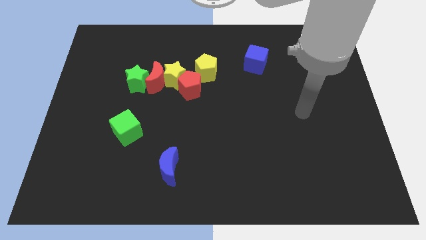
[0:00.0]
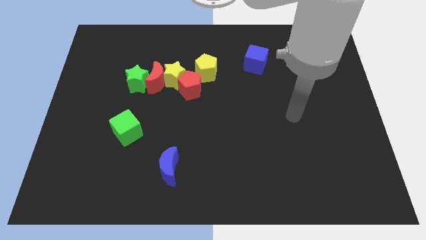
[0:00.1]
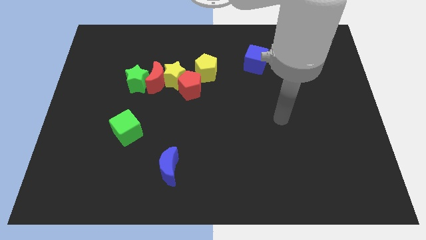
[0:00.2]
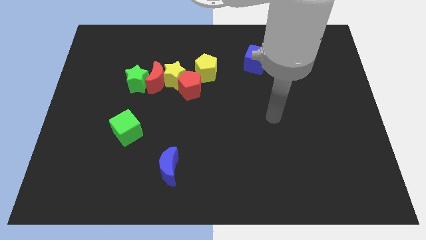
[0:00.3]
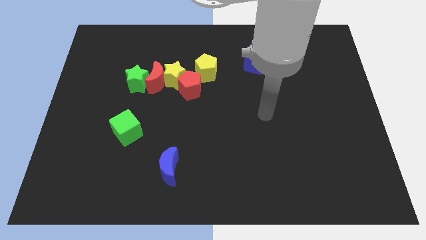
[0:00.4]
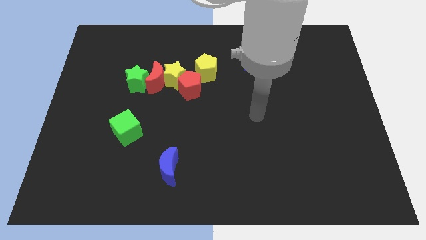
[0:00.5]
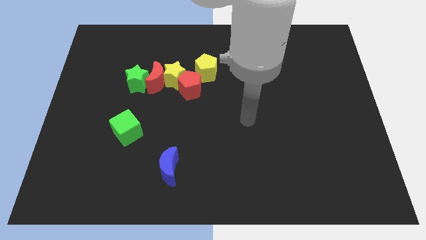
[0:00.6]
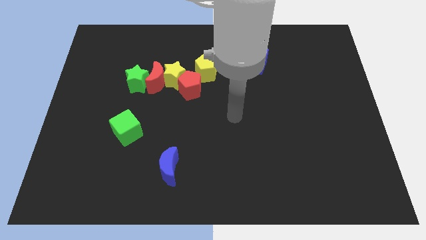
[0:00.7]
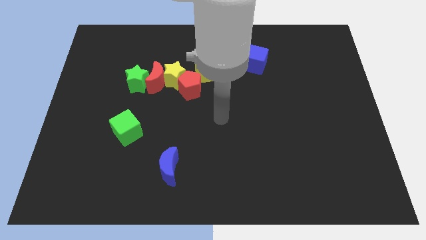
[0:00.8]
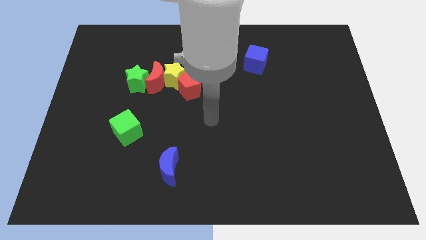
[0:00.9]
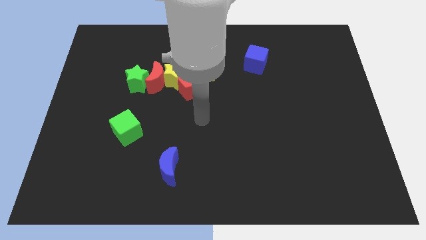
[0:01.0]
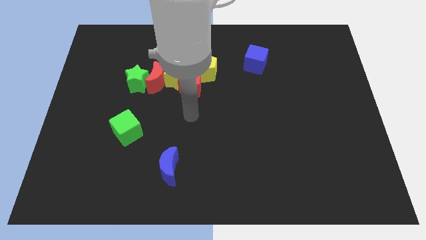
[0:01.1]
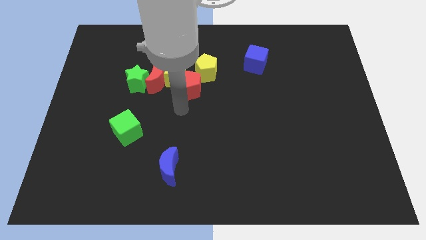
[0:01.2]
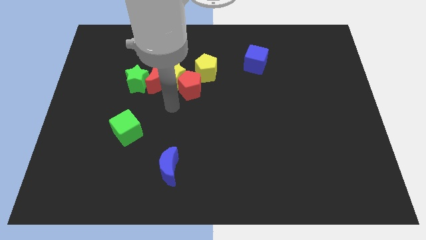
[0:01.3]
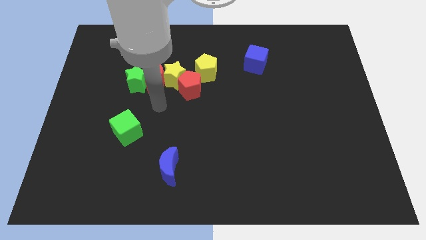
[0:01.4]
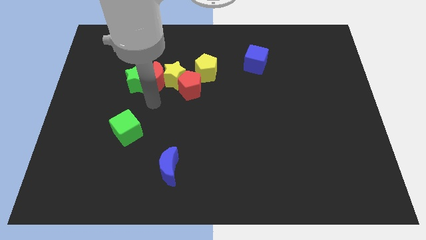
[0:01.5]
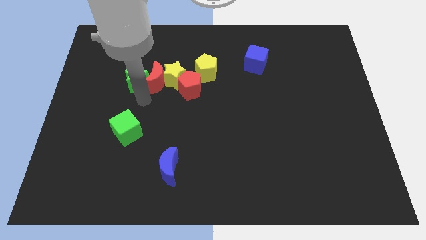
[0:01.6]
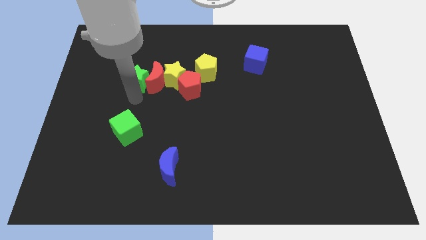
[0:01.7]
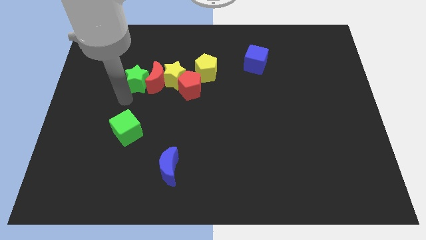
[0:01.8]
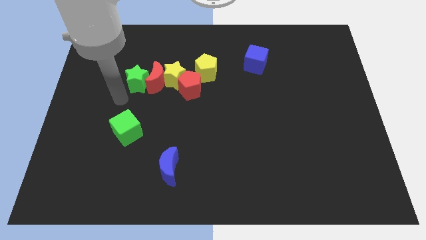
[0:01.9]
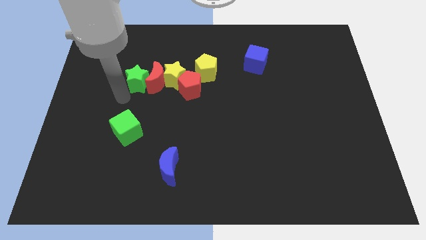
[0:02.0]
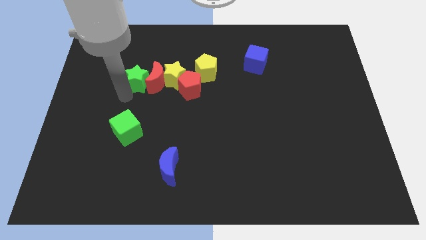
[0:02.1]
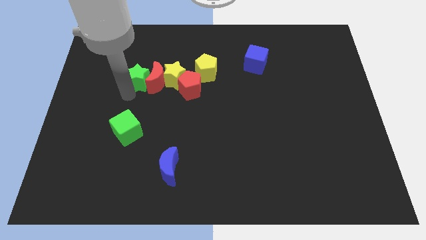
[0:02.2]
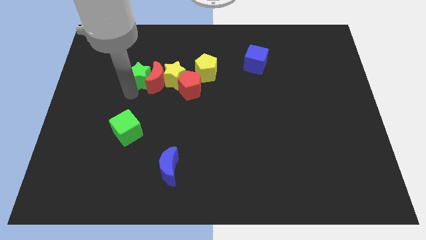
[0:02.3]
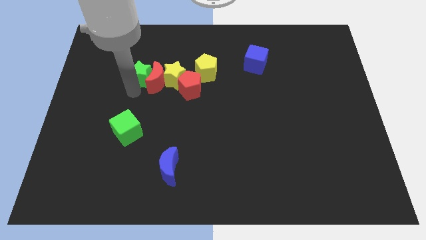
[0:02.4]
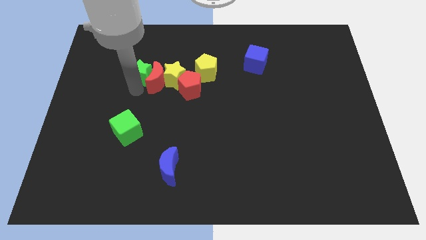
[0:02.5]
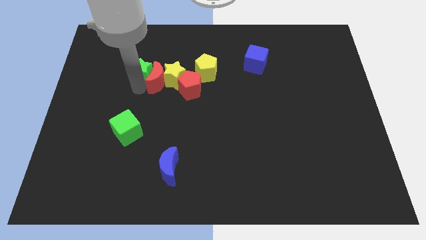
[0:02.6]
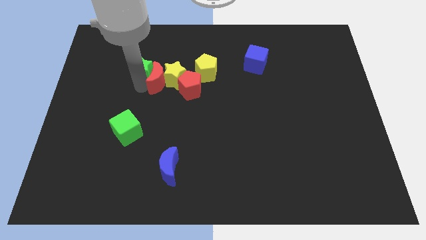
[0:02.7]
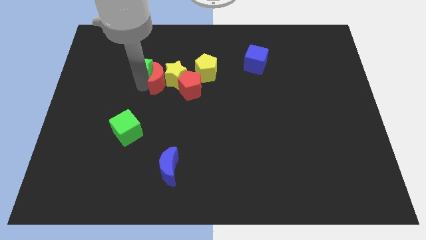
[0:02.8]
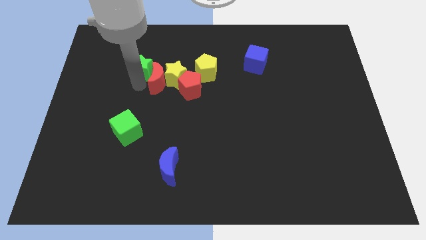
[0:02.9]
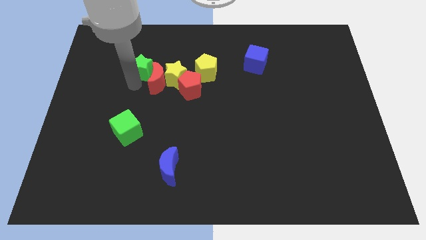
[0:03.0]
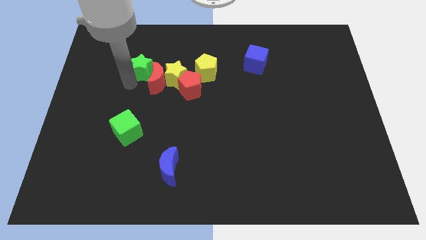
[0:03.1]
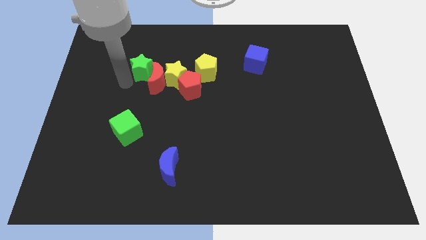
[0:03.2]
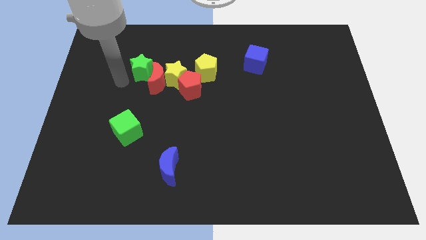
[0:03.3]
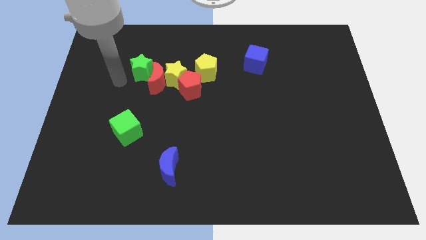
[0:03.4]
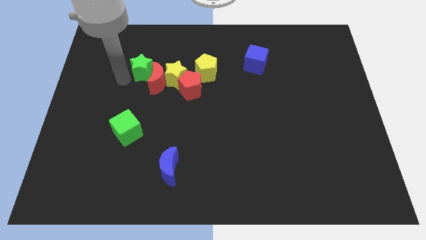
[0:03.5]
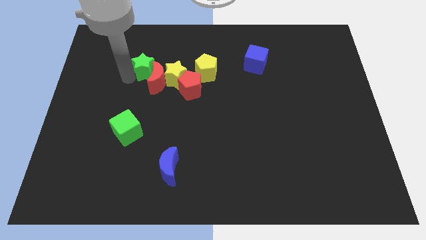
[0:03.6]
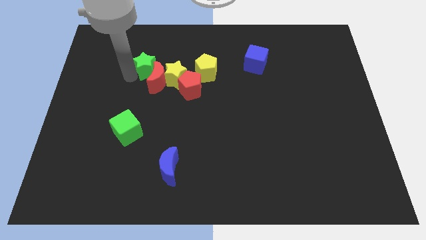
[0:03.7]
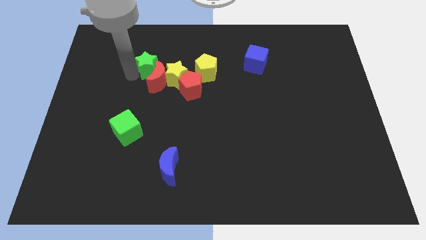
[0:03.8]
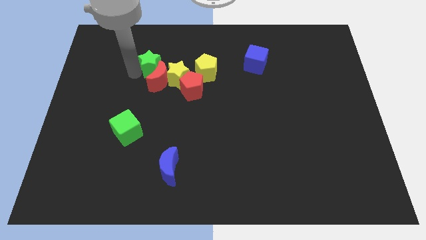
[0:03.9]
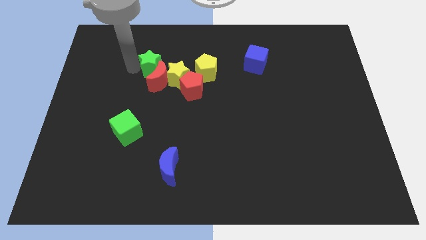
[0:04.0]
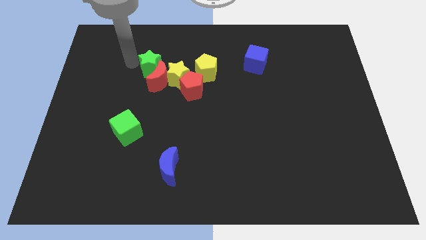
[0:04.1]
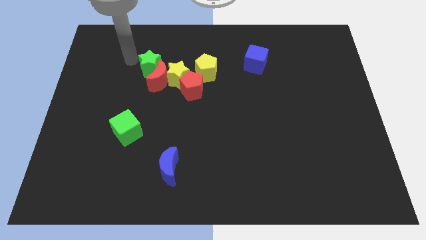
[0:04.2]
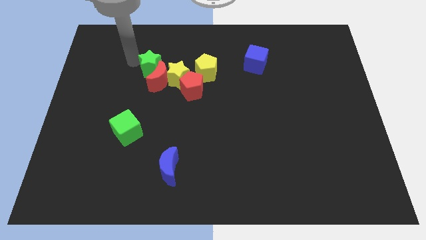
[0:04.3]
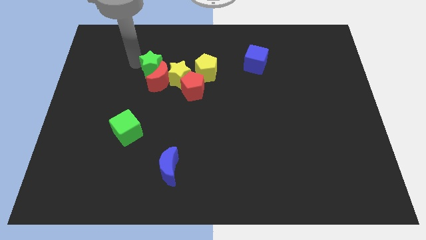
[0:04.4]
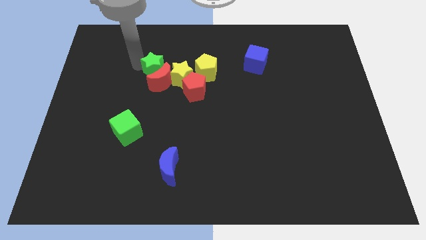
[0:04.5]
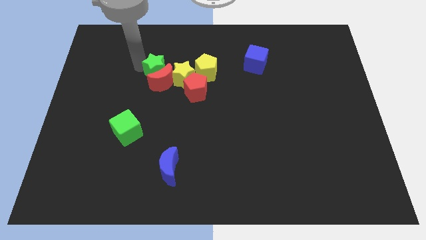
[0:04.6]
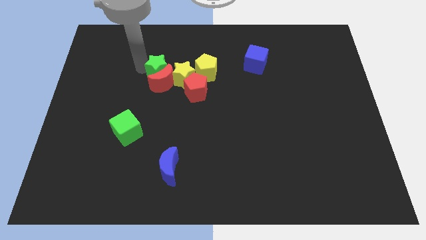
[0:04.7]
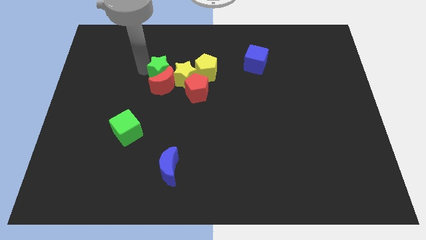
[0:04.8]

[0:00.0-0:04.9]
move the green star close to the yellow star

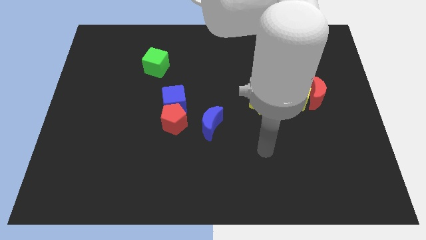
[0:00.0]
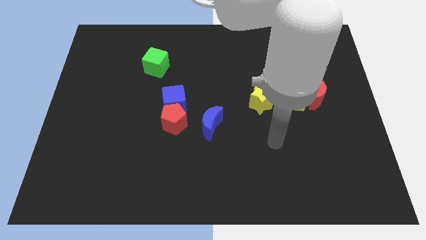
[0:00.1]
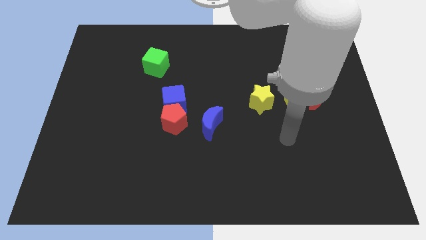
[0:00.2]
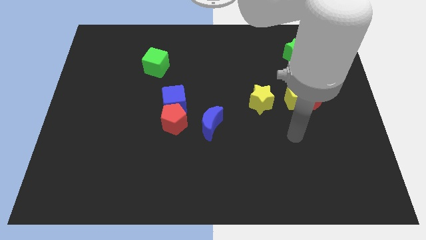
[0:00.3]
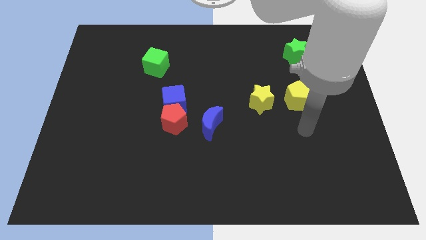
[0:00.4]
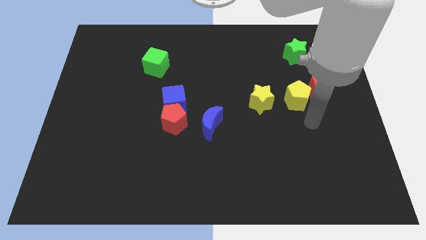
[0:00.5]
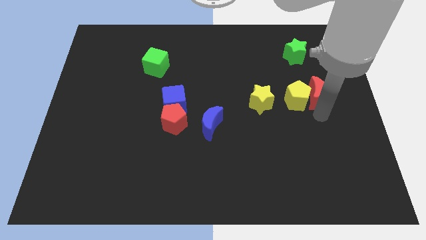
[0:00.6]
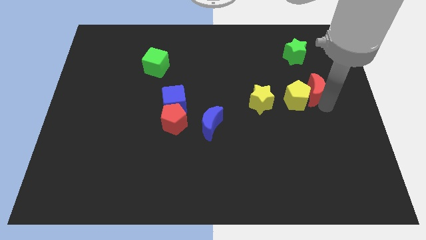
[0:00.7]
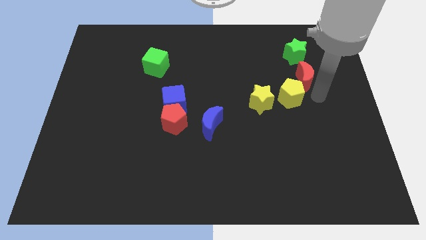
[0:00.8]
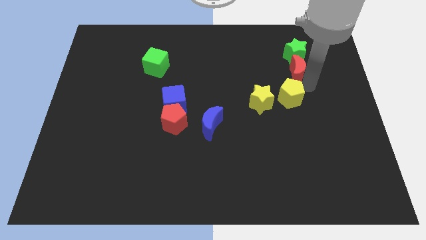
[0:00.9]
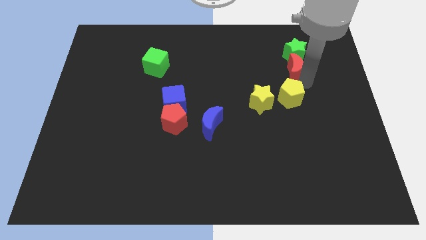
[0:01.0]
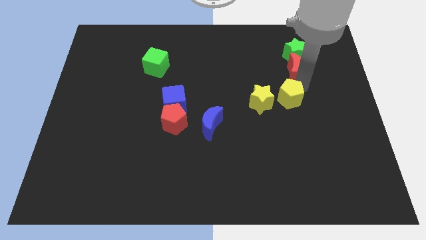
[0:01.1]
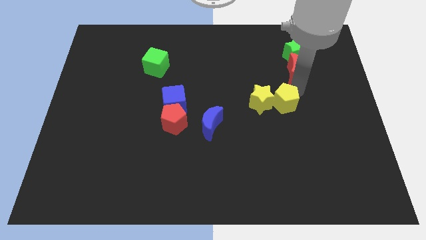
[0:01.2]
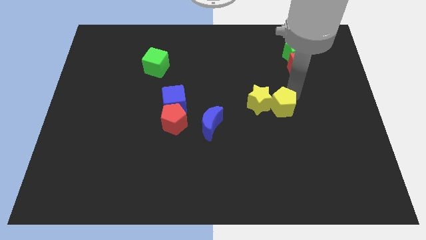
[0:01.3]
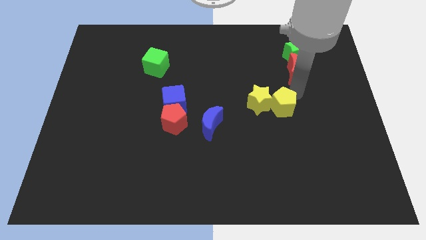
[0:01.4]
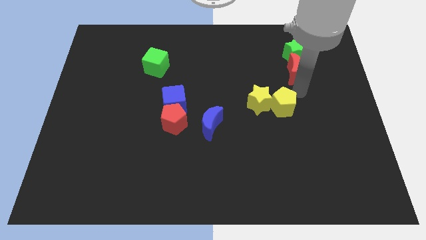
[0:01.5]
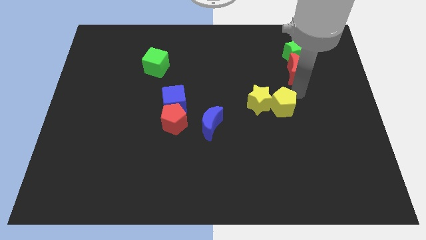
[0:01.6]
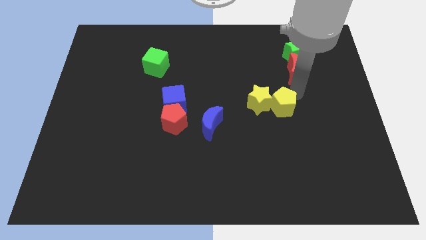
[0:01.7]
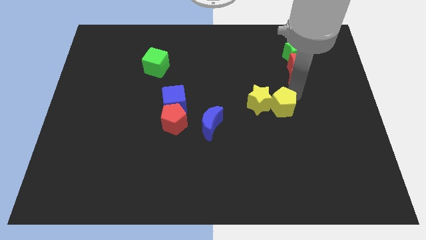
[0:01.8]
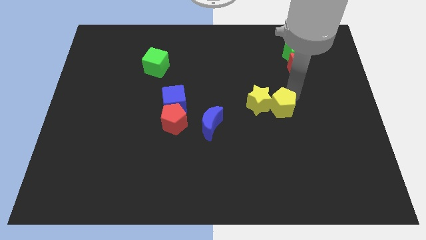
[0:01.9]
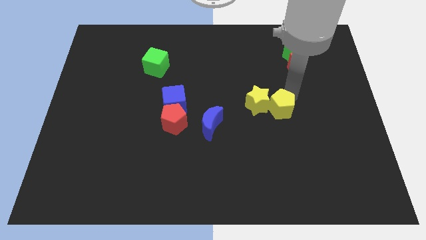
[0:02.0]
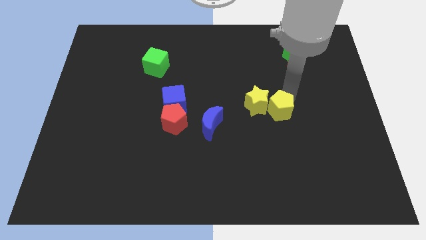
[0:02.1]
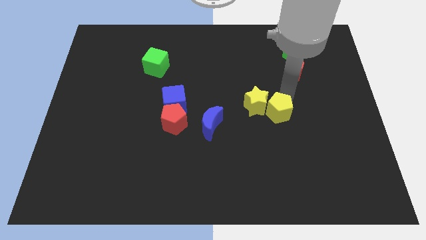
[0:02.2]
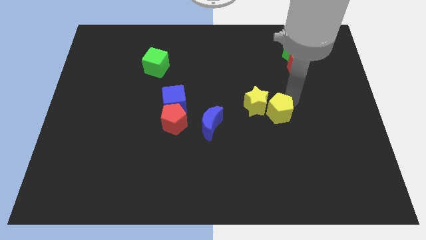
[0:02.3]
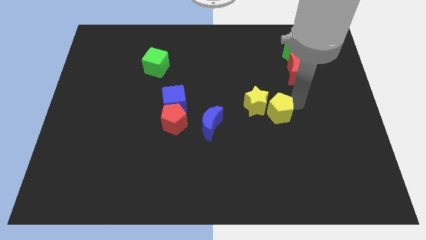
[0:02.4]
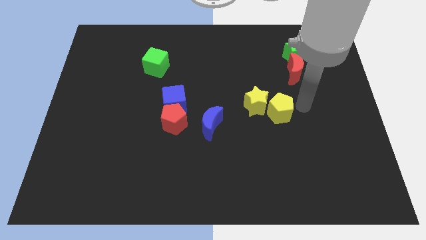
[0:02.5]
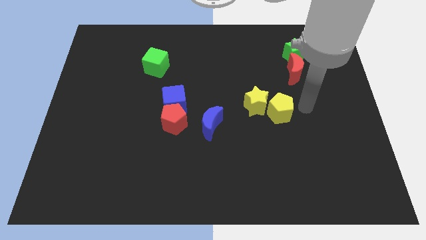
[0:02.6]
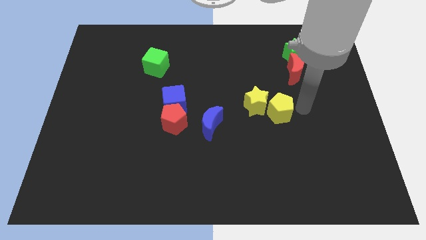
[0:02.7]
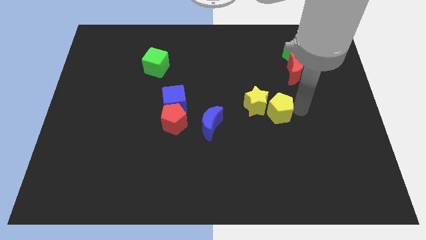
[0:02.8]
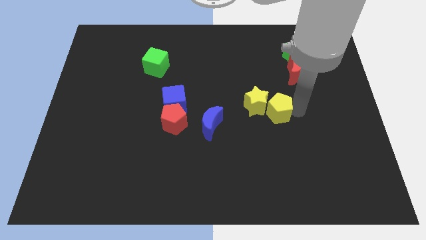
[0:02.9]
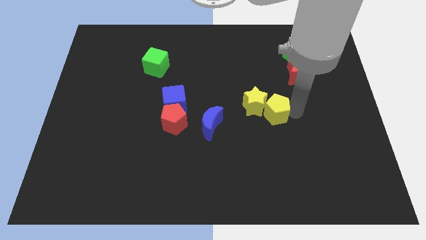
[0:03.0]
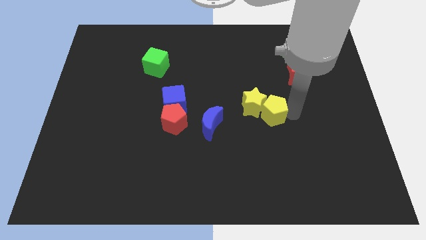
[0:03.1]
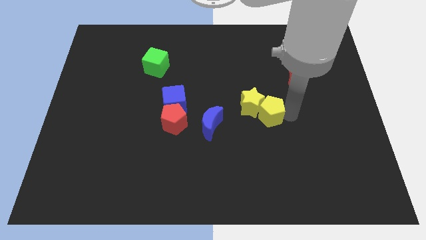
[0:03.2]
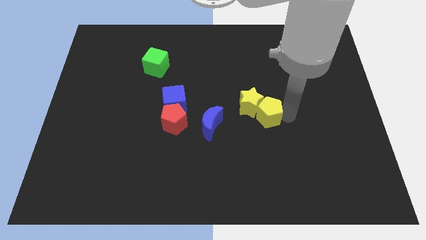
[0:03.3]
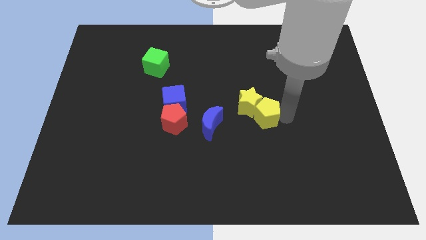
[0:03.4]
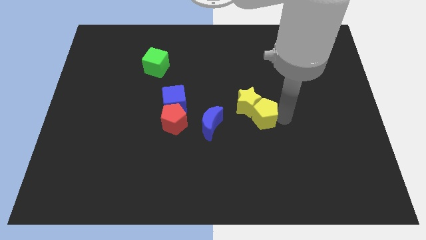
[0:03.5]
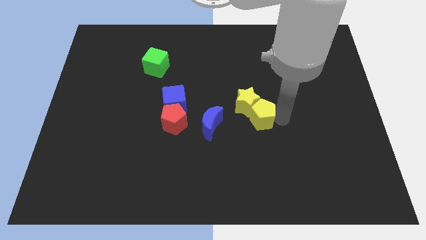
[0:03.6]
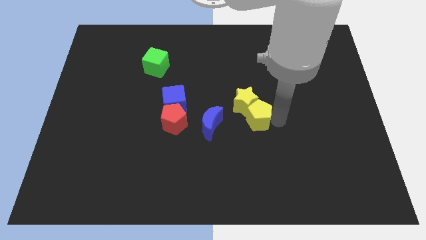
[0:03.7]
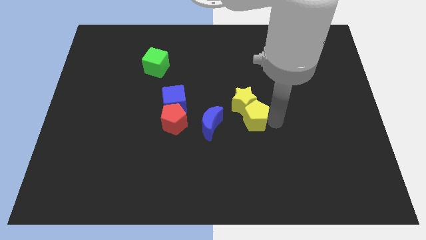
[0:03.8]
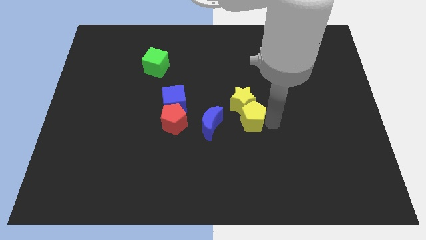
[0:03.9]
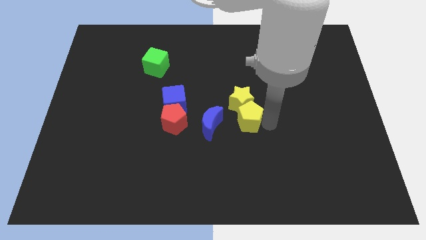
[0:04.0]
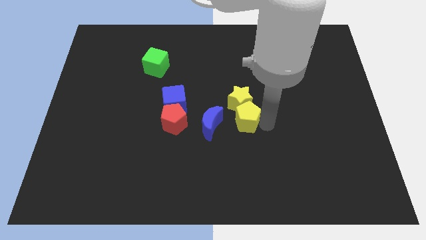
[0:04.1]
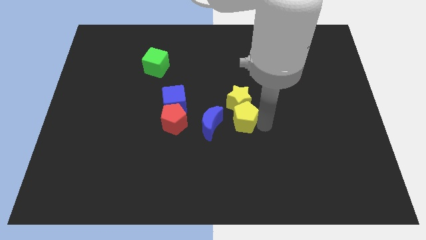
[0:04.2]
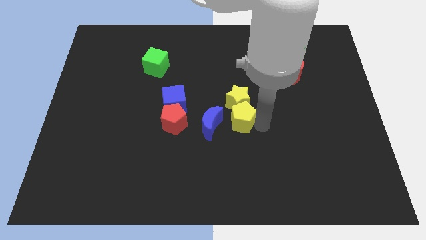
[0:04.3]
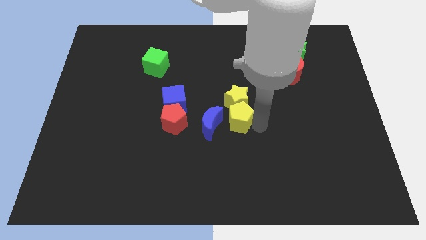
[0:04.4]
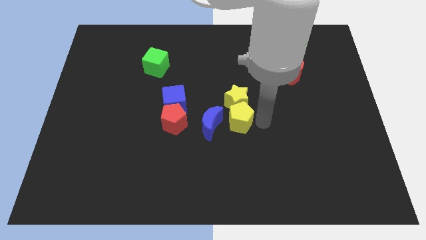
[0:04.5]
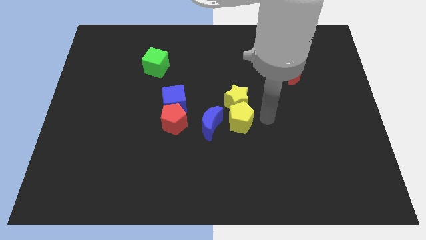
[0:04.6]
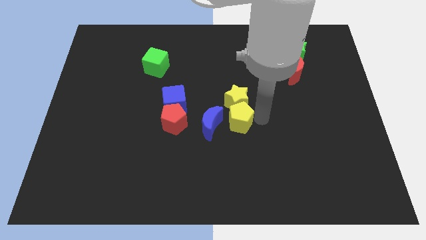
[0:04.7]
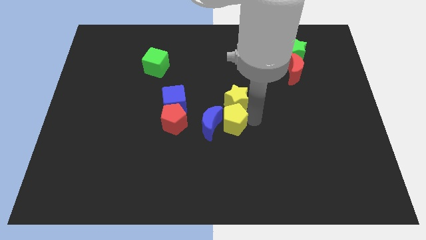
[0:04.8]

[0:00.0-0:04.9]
move the yellow pentagon close to the blue moon
